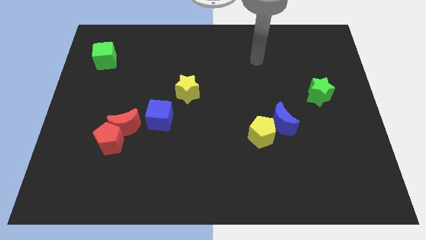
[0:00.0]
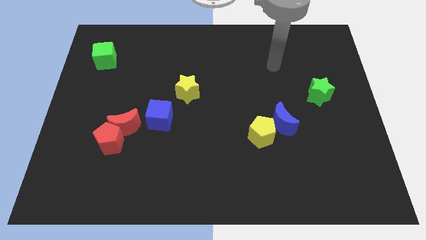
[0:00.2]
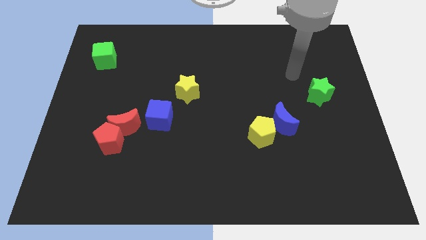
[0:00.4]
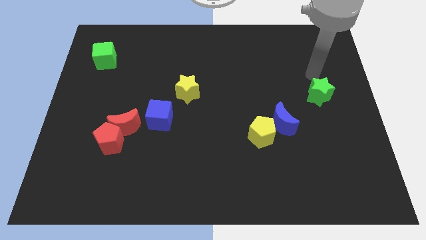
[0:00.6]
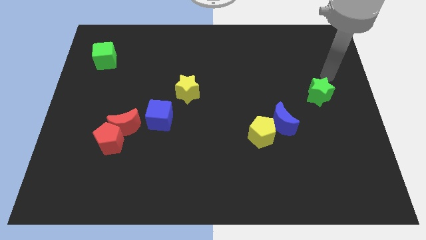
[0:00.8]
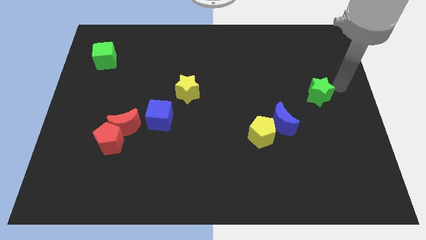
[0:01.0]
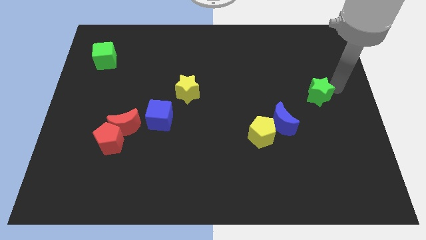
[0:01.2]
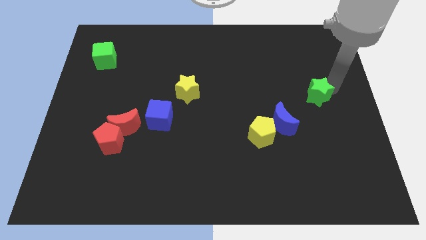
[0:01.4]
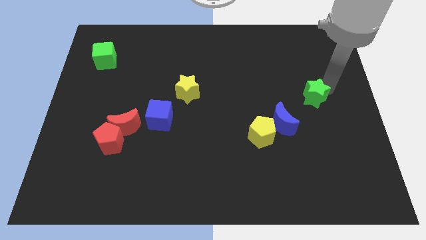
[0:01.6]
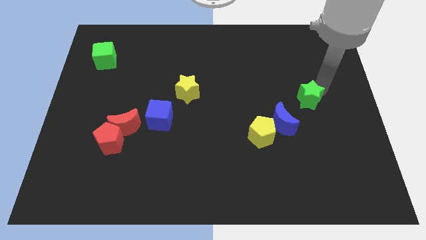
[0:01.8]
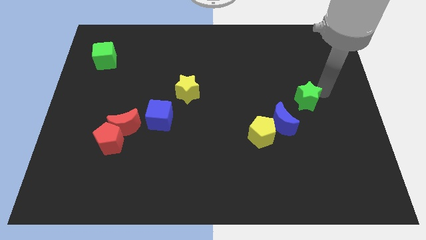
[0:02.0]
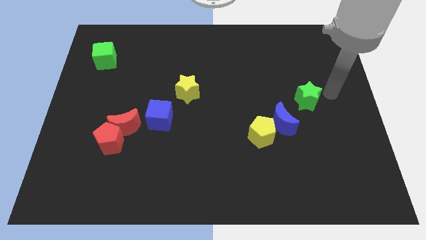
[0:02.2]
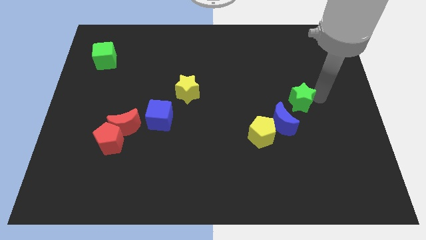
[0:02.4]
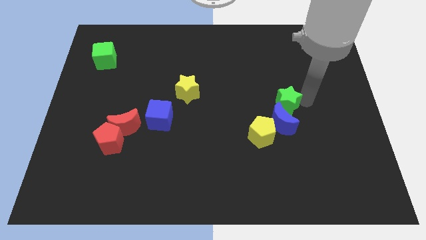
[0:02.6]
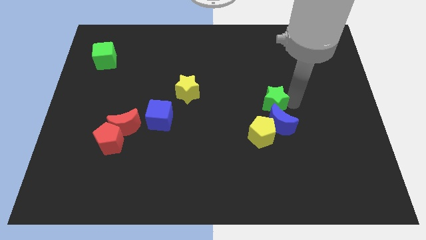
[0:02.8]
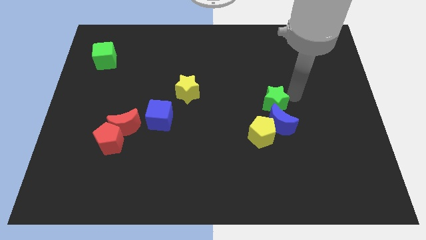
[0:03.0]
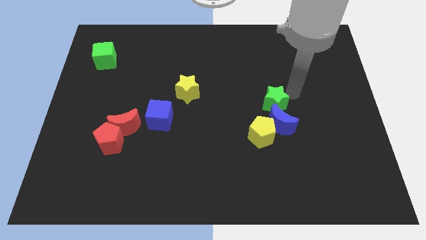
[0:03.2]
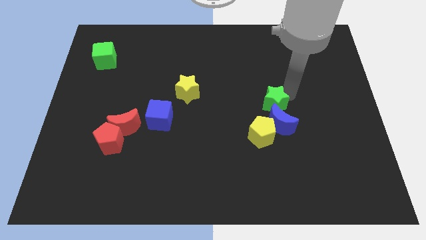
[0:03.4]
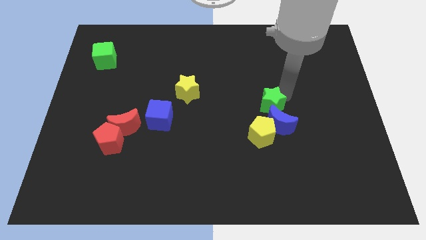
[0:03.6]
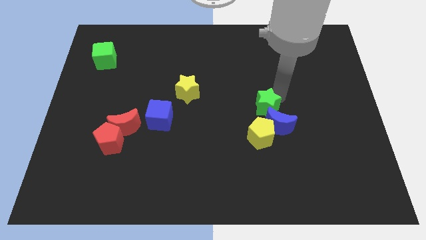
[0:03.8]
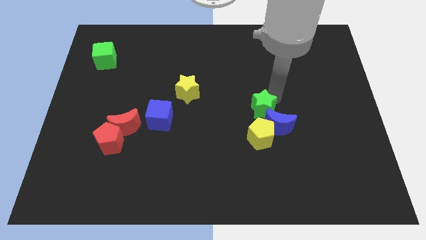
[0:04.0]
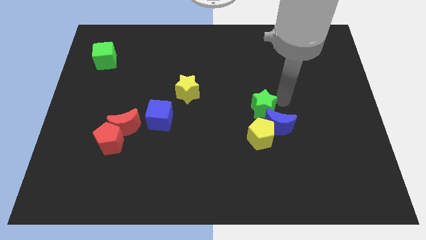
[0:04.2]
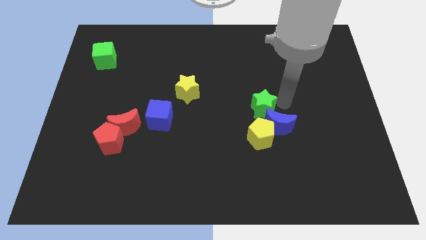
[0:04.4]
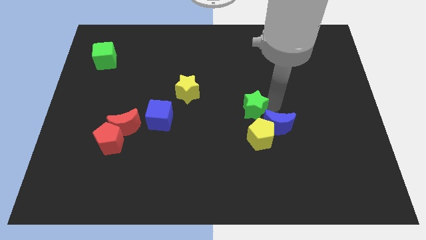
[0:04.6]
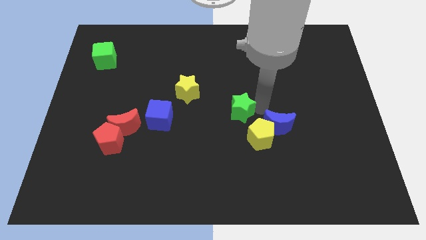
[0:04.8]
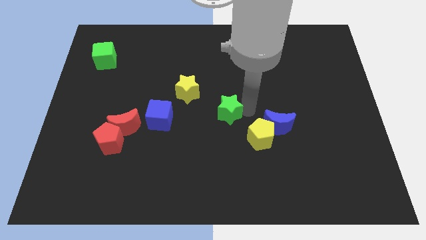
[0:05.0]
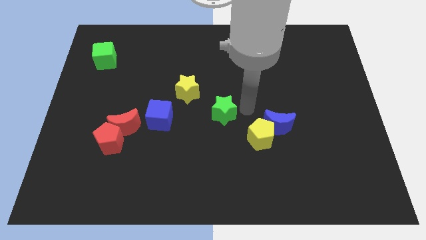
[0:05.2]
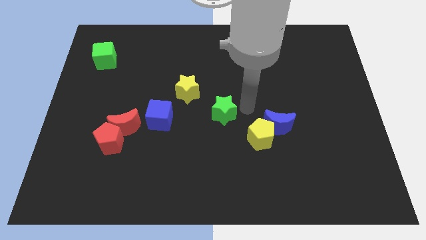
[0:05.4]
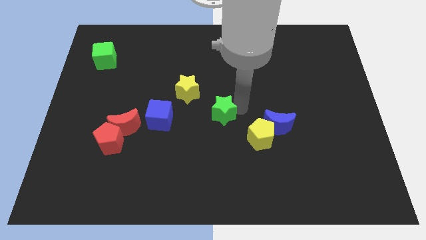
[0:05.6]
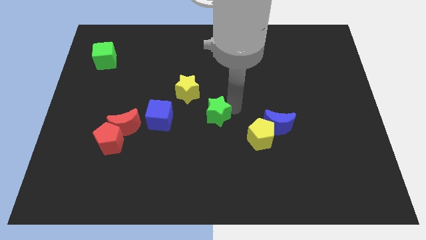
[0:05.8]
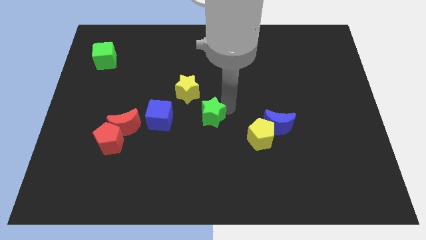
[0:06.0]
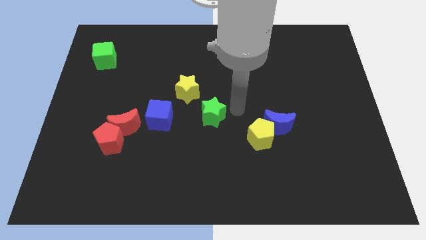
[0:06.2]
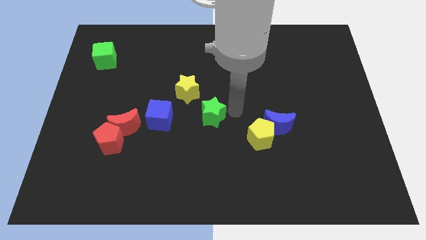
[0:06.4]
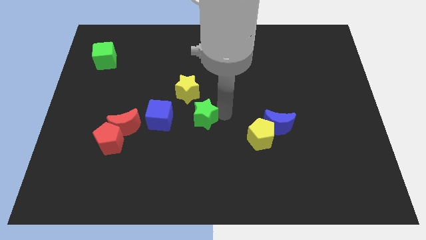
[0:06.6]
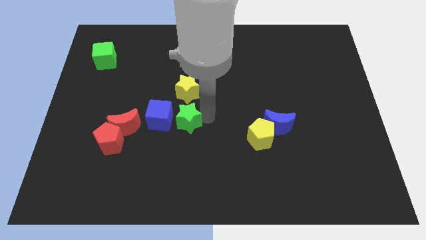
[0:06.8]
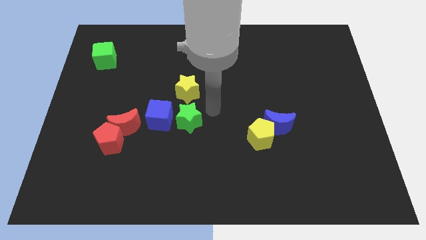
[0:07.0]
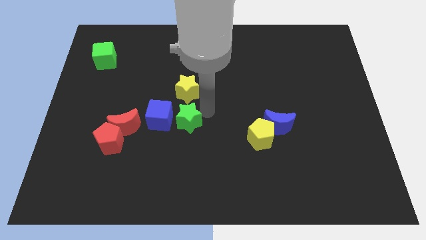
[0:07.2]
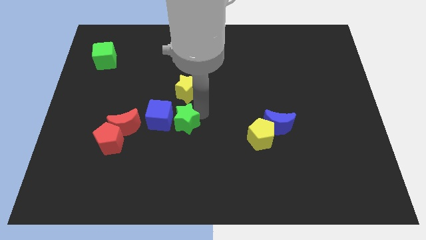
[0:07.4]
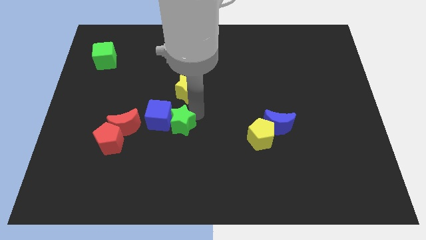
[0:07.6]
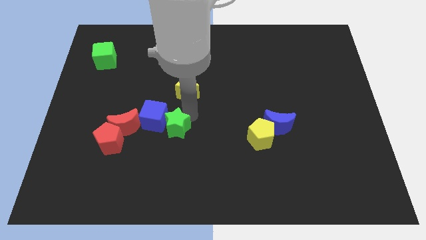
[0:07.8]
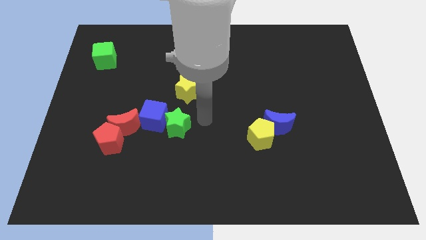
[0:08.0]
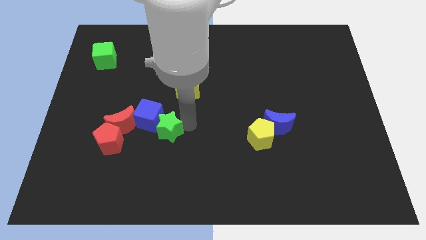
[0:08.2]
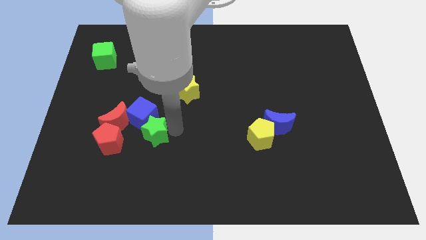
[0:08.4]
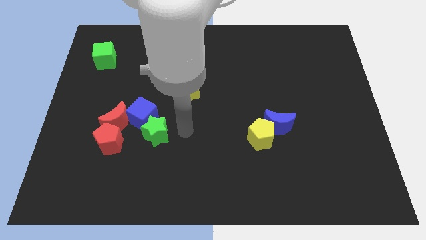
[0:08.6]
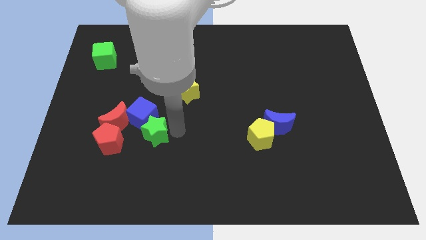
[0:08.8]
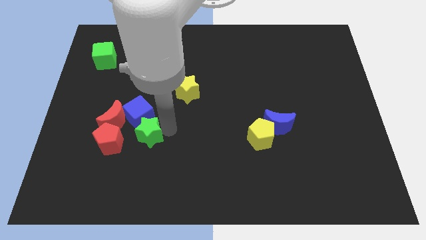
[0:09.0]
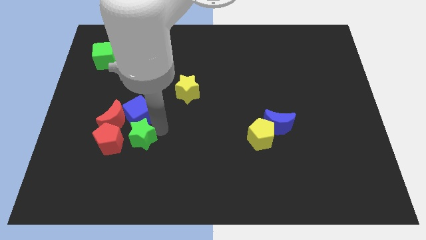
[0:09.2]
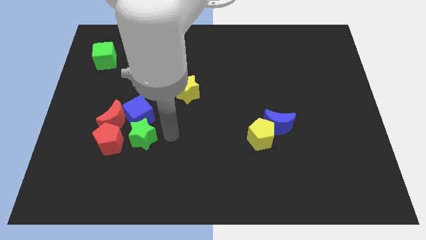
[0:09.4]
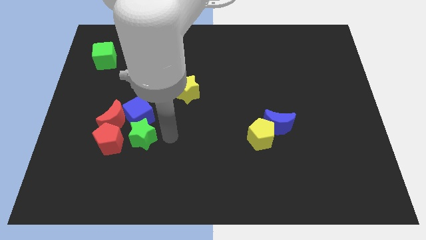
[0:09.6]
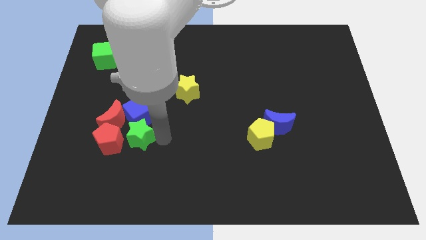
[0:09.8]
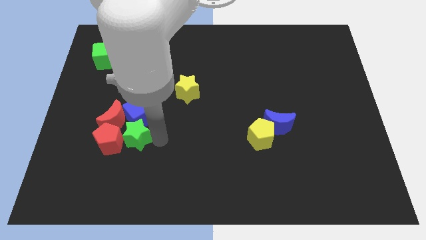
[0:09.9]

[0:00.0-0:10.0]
slide the green star close to the red pentagon
